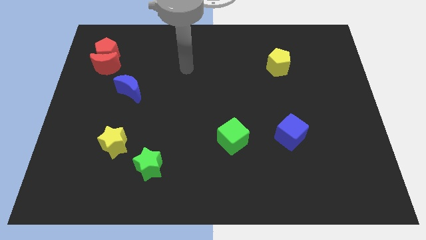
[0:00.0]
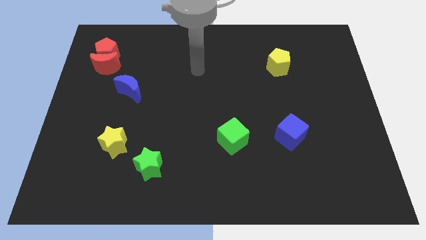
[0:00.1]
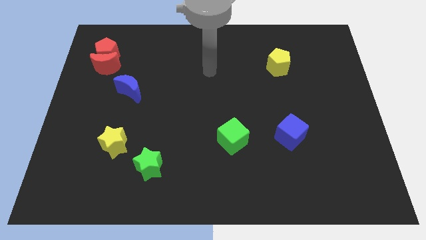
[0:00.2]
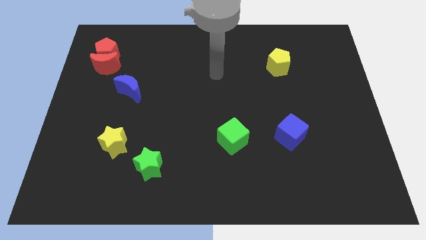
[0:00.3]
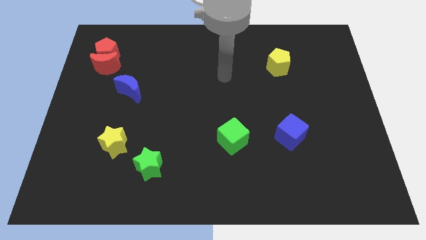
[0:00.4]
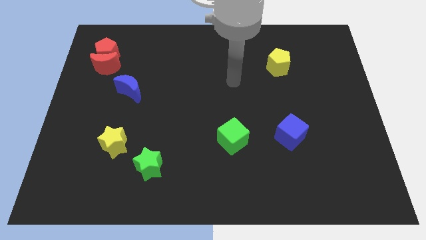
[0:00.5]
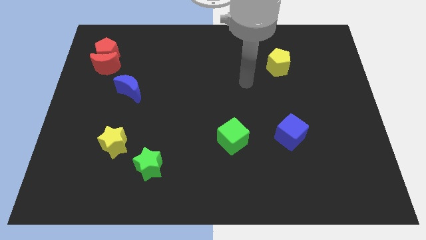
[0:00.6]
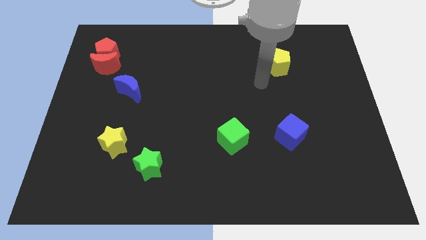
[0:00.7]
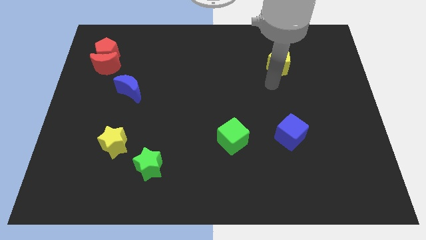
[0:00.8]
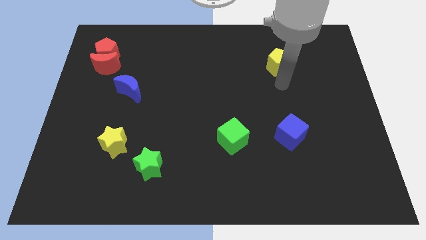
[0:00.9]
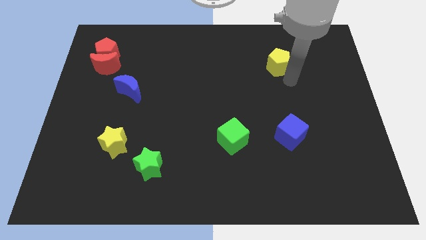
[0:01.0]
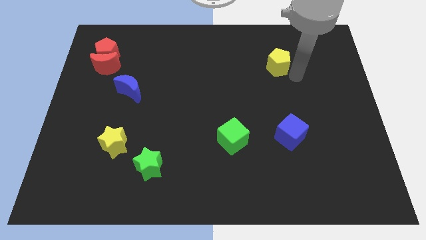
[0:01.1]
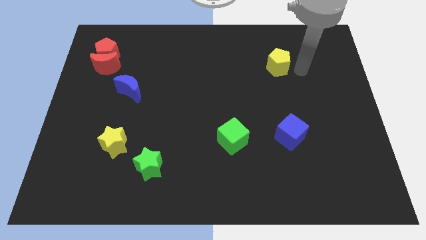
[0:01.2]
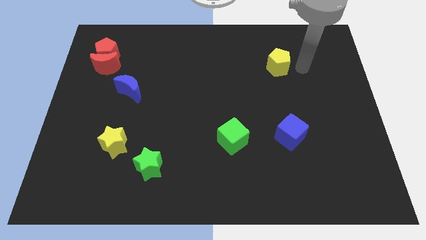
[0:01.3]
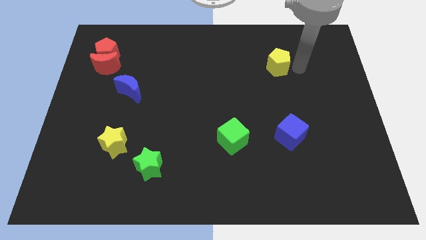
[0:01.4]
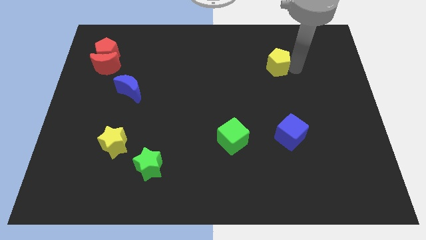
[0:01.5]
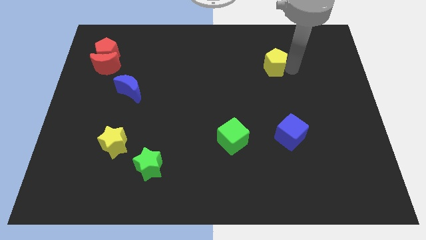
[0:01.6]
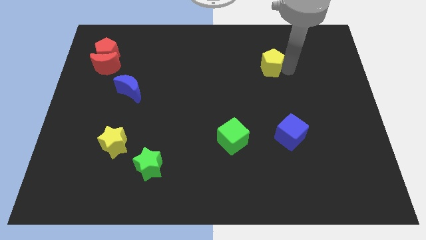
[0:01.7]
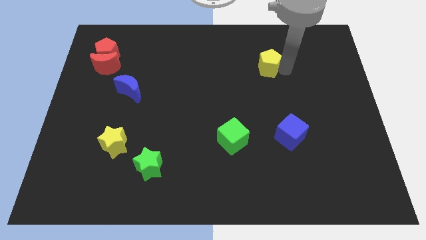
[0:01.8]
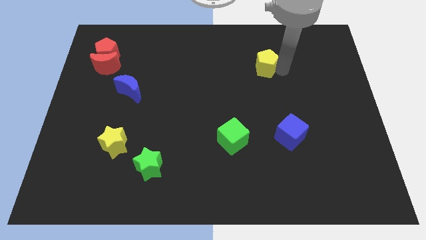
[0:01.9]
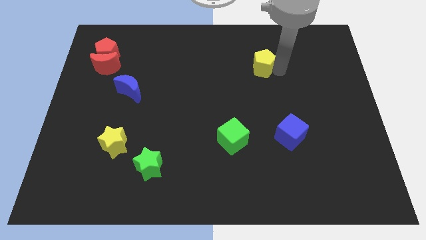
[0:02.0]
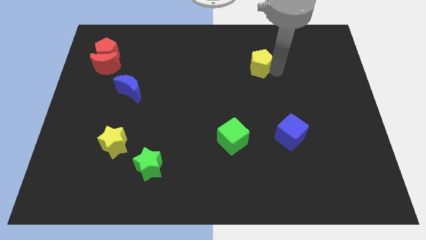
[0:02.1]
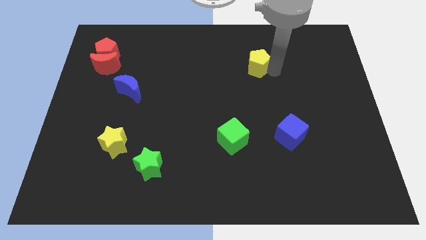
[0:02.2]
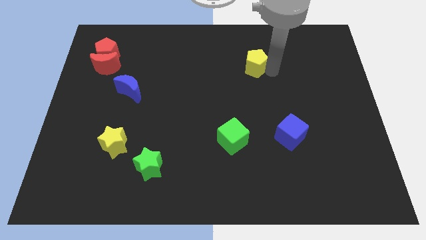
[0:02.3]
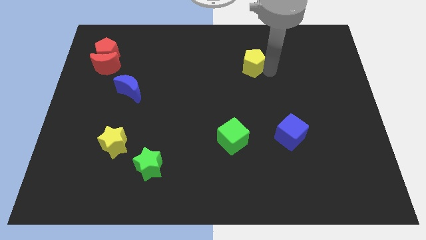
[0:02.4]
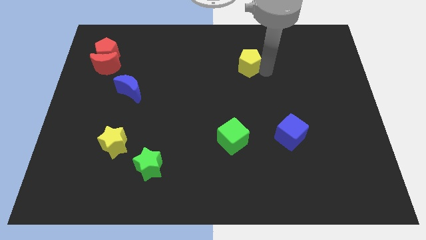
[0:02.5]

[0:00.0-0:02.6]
move the yellow pentagon to the left a little bit

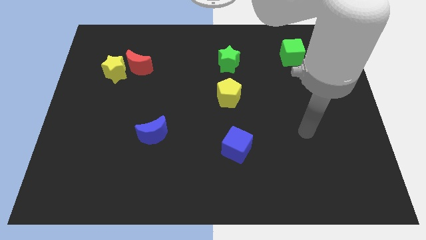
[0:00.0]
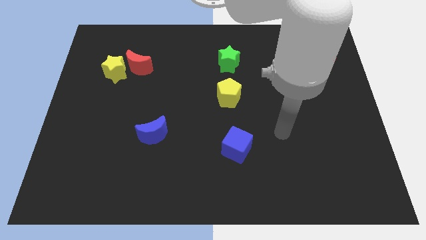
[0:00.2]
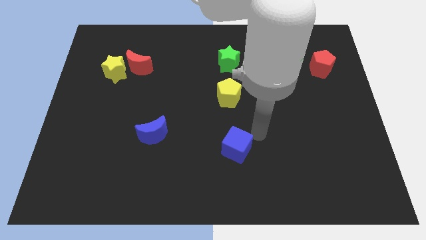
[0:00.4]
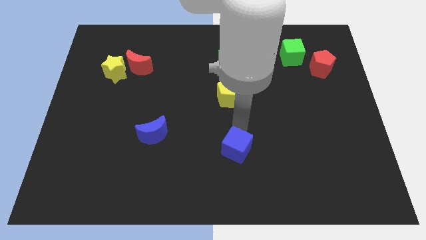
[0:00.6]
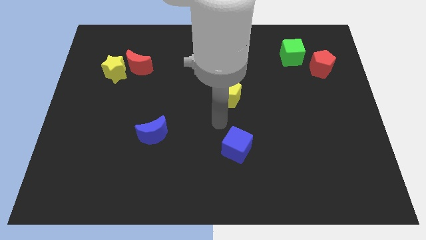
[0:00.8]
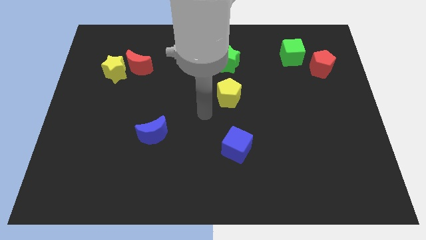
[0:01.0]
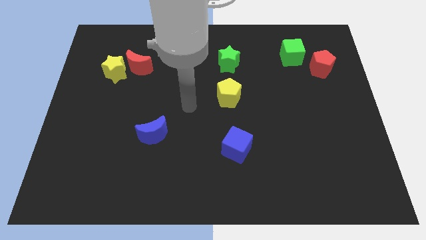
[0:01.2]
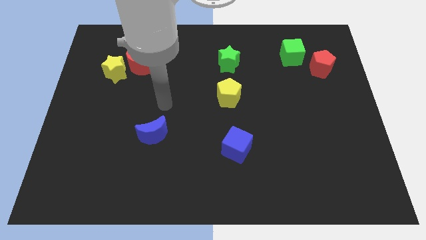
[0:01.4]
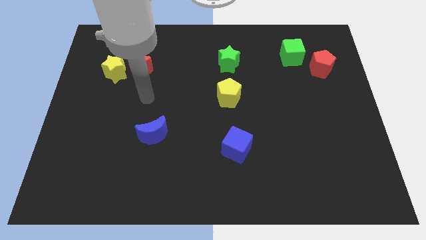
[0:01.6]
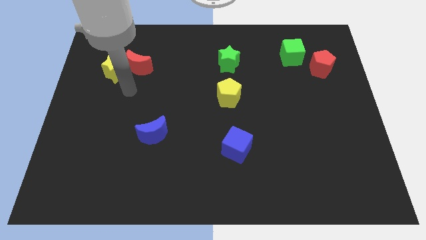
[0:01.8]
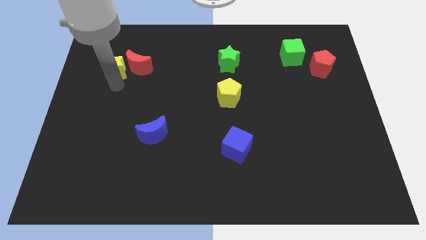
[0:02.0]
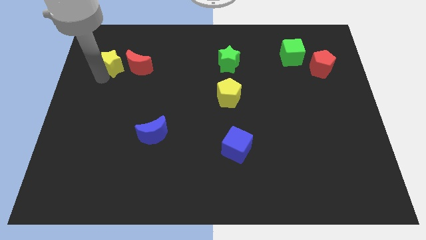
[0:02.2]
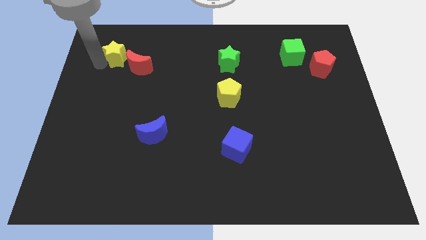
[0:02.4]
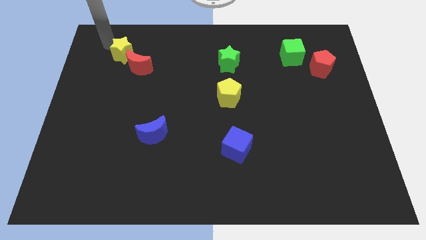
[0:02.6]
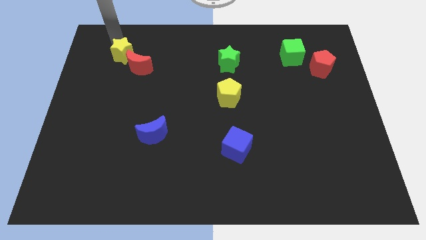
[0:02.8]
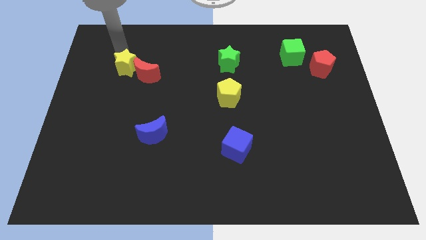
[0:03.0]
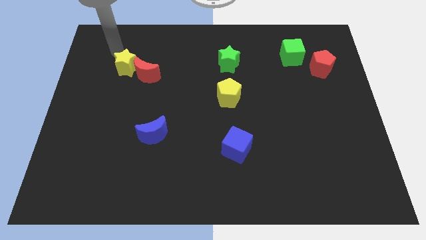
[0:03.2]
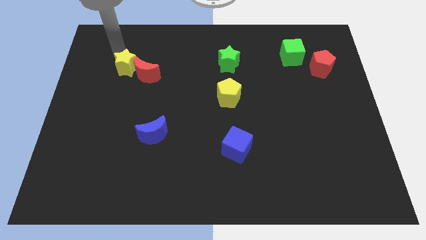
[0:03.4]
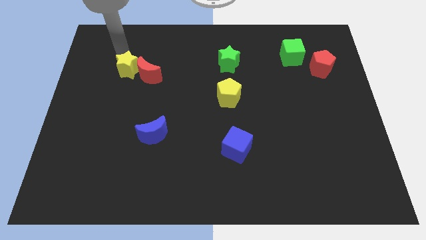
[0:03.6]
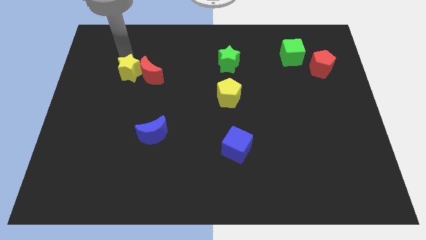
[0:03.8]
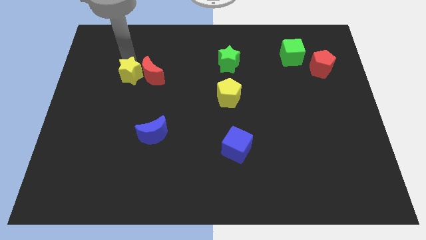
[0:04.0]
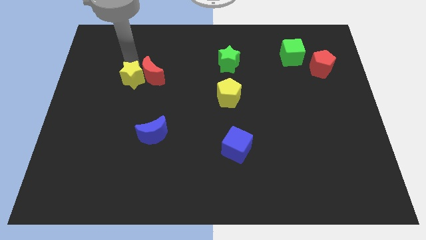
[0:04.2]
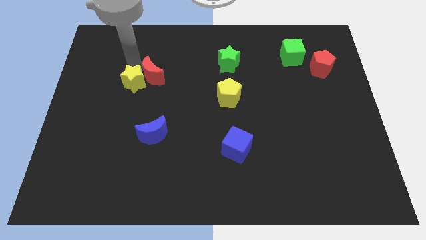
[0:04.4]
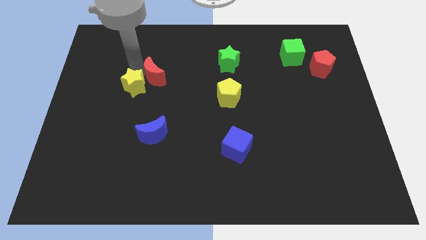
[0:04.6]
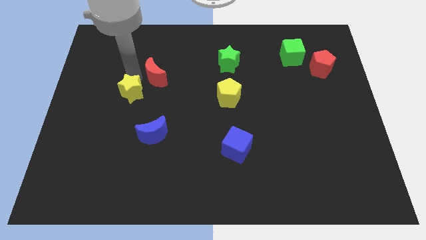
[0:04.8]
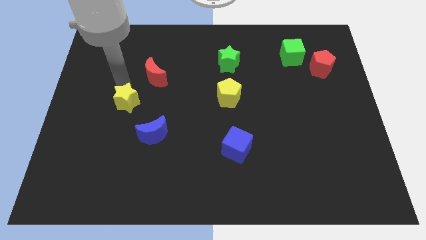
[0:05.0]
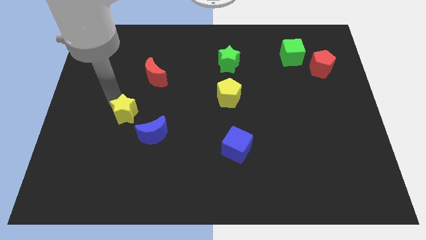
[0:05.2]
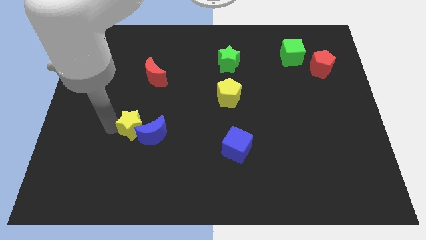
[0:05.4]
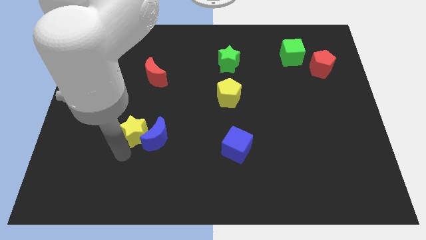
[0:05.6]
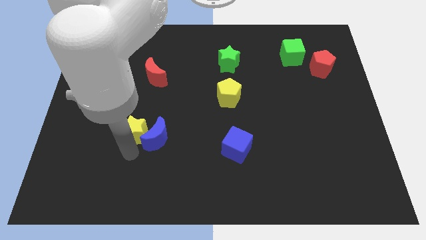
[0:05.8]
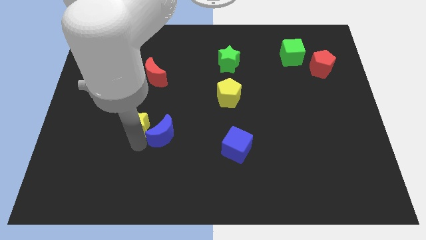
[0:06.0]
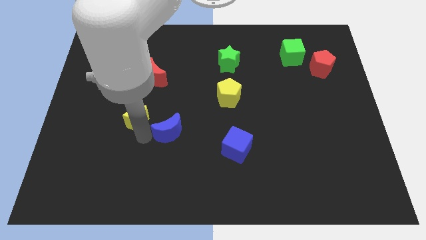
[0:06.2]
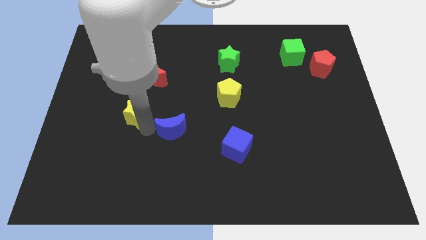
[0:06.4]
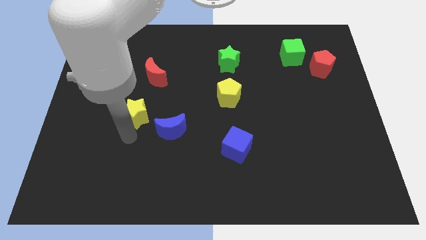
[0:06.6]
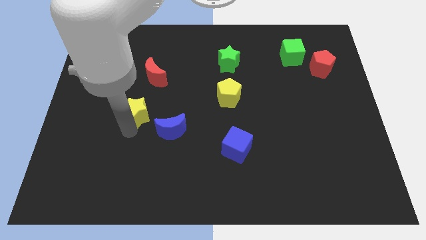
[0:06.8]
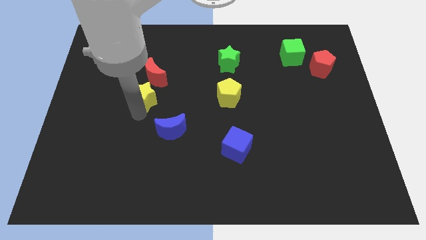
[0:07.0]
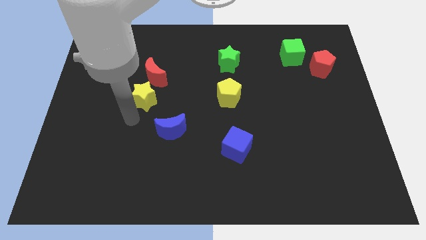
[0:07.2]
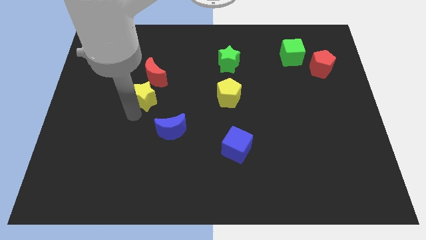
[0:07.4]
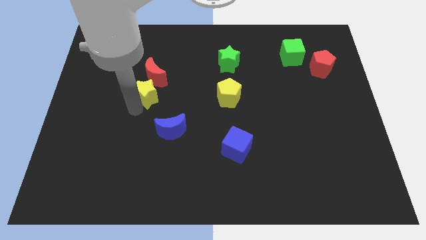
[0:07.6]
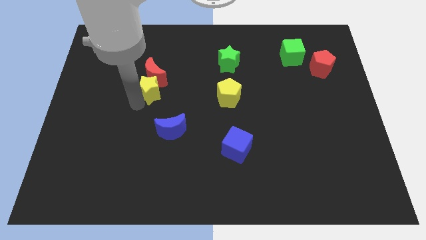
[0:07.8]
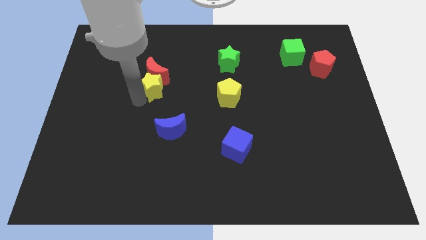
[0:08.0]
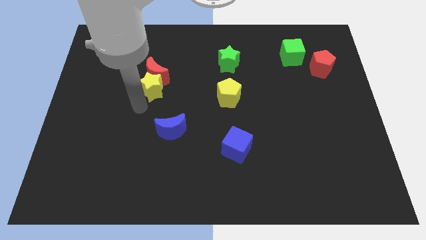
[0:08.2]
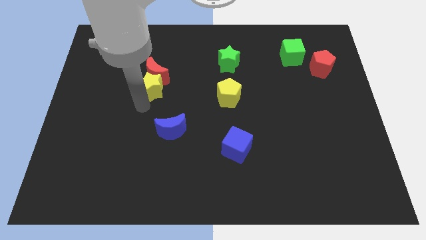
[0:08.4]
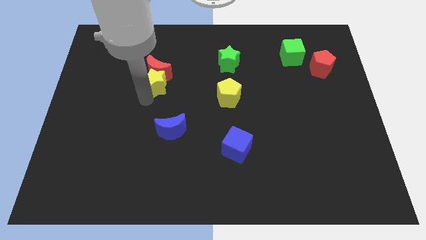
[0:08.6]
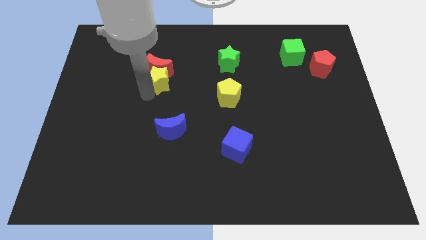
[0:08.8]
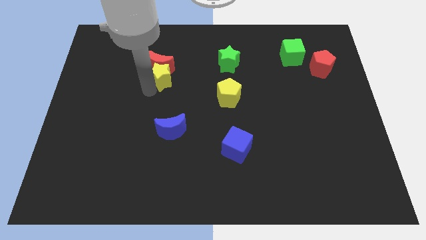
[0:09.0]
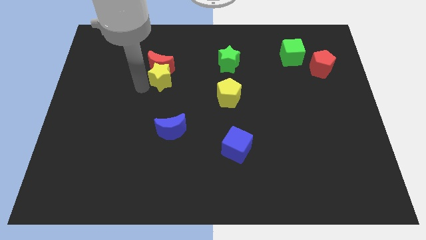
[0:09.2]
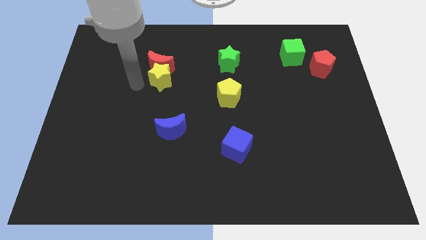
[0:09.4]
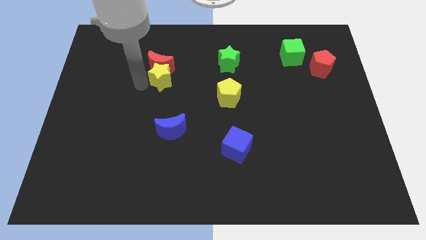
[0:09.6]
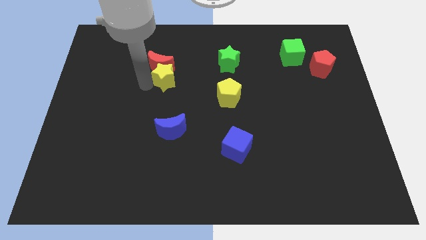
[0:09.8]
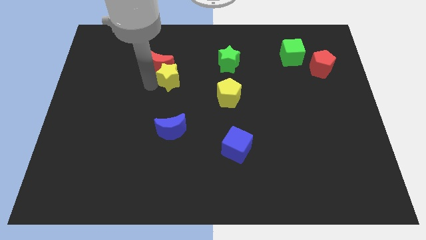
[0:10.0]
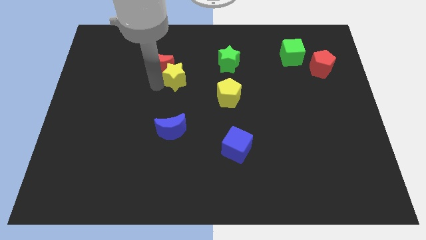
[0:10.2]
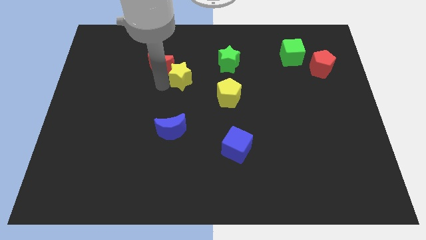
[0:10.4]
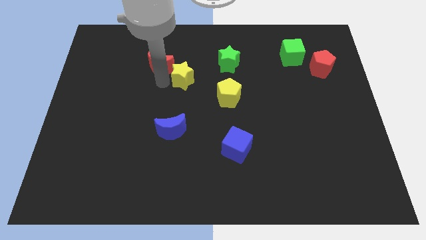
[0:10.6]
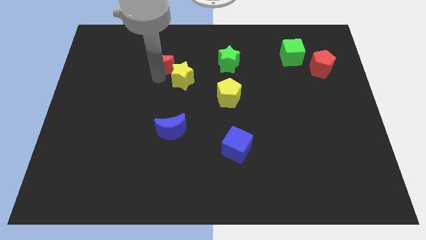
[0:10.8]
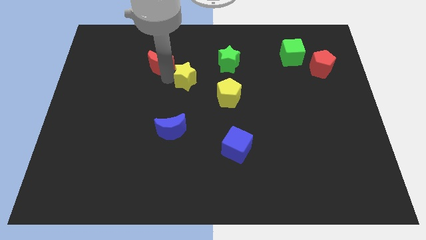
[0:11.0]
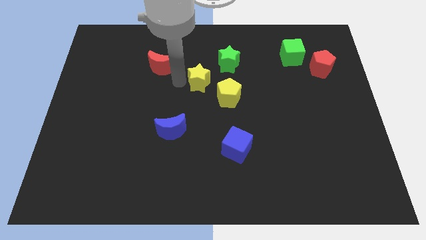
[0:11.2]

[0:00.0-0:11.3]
slide the yellow star to the right
